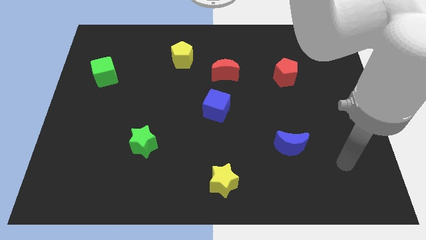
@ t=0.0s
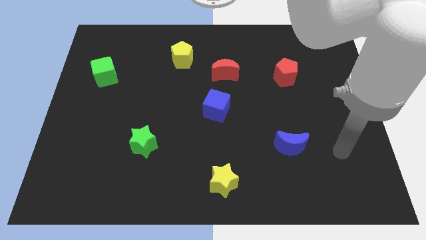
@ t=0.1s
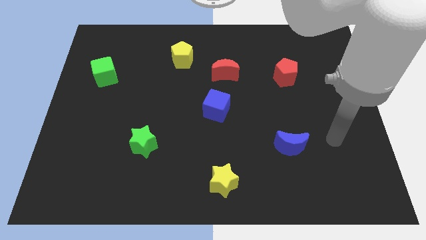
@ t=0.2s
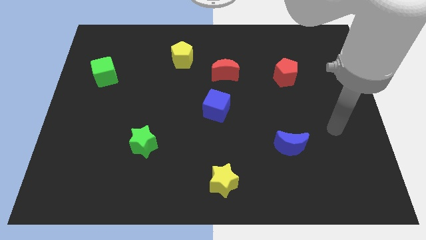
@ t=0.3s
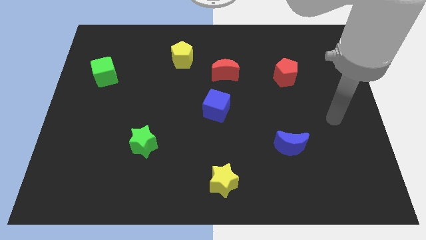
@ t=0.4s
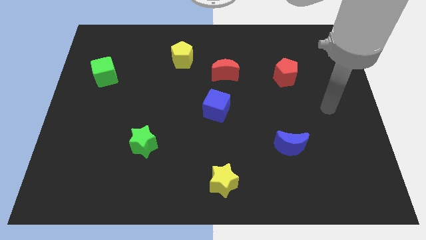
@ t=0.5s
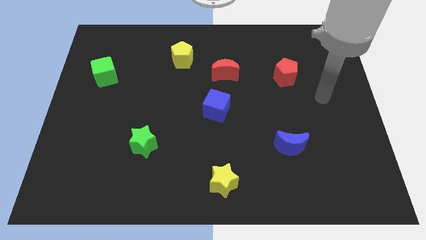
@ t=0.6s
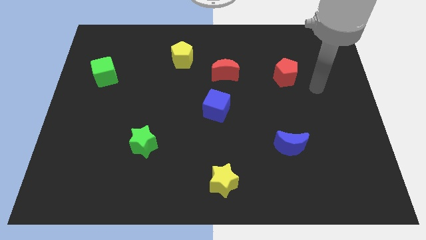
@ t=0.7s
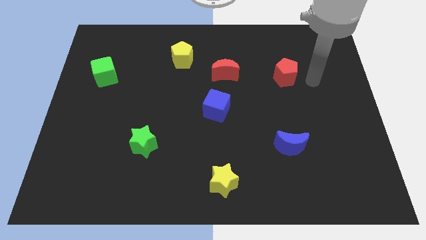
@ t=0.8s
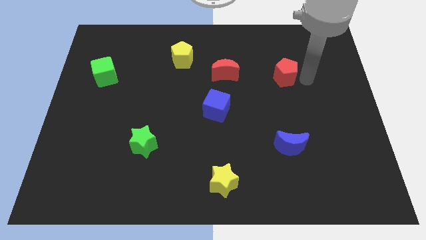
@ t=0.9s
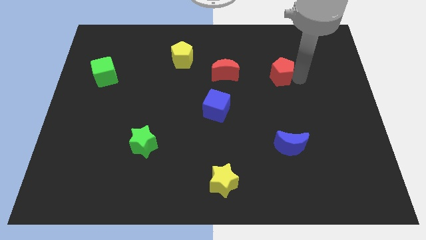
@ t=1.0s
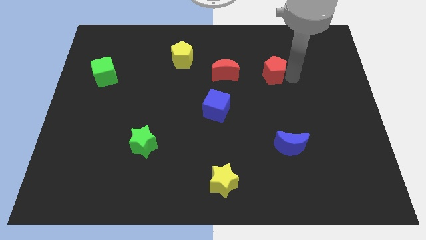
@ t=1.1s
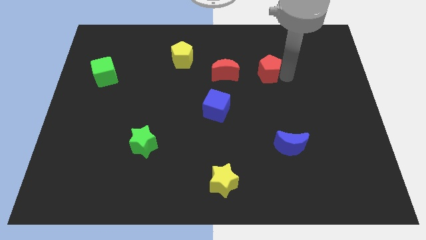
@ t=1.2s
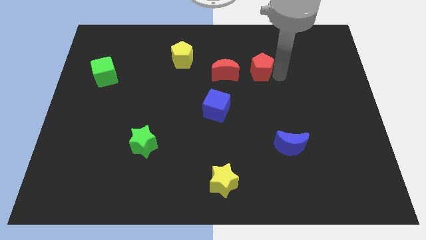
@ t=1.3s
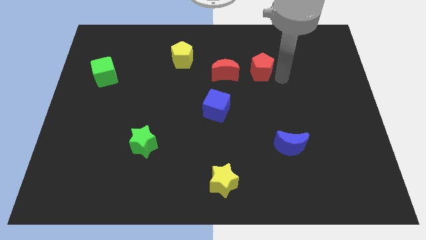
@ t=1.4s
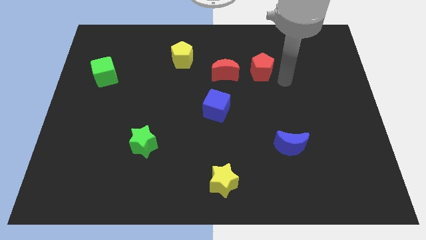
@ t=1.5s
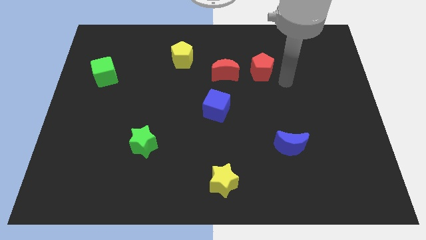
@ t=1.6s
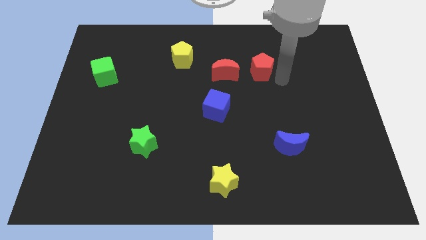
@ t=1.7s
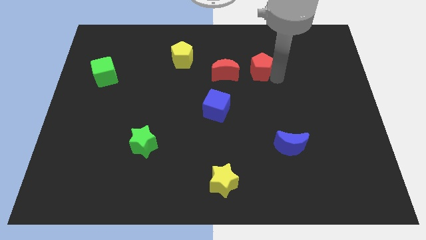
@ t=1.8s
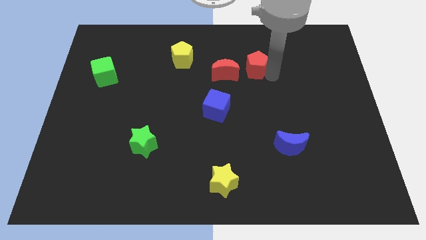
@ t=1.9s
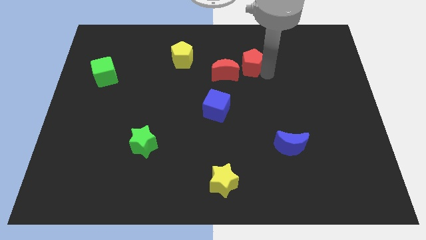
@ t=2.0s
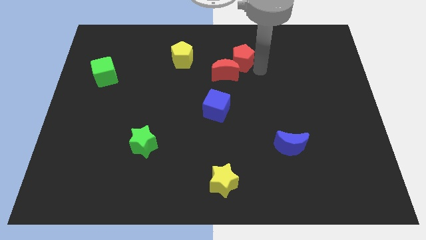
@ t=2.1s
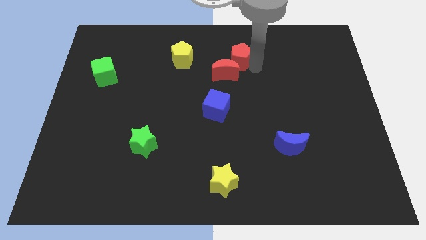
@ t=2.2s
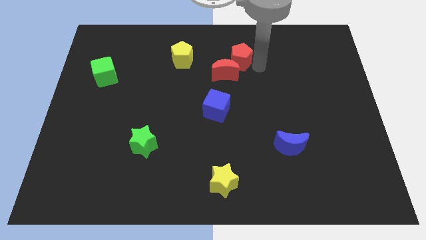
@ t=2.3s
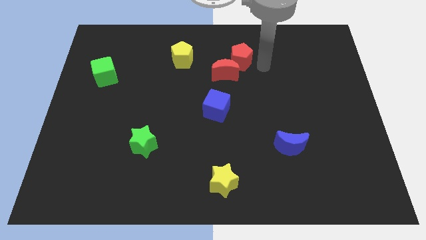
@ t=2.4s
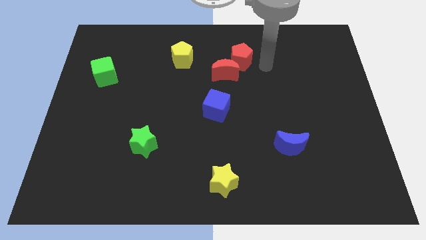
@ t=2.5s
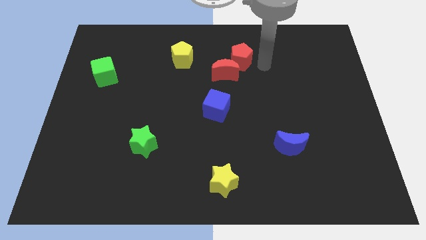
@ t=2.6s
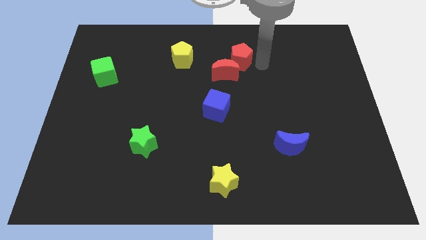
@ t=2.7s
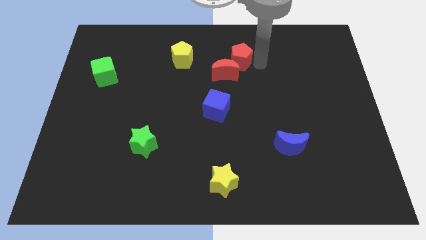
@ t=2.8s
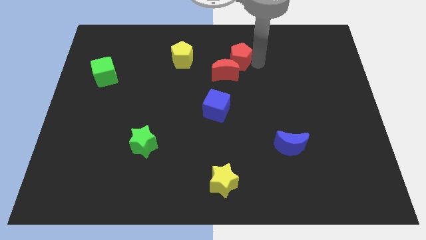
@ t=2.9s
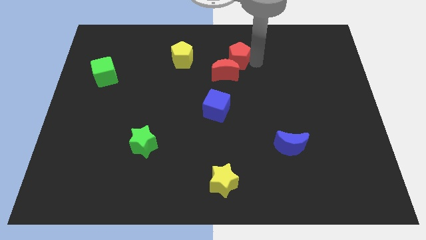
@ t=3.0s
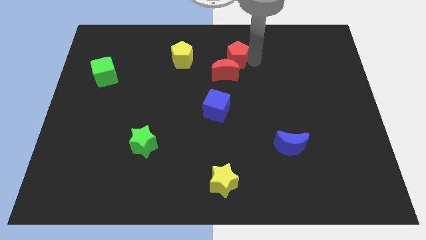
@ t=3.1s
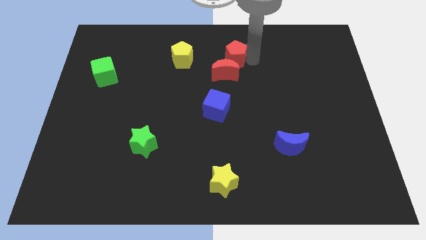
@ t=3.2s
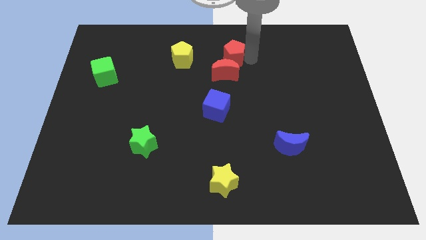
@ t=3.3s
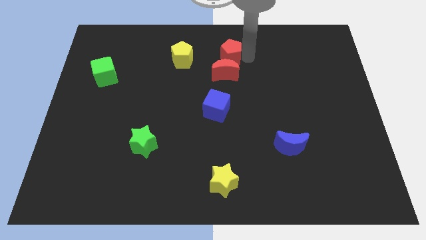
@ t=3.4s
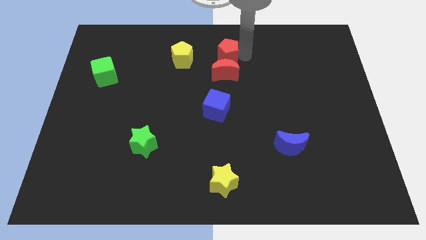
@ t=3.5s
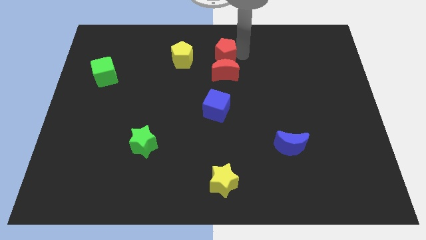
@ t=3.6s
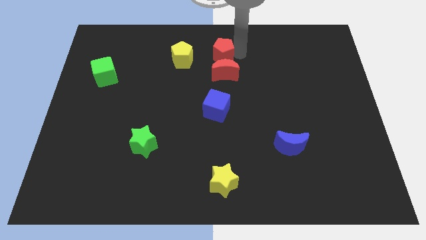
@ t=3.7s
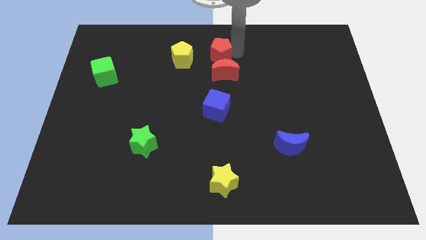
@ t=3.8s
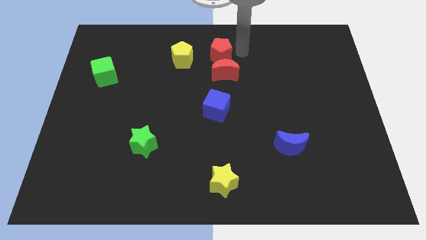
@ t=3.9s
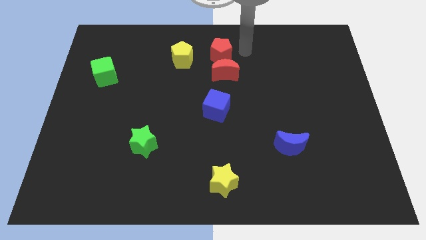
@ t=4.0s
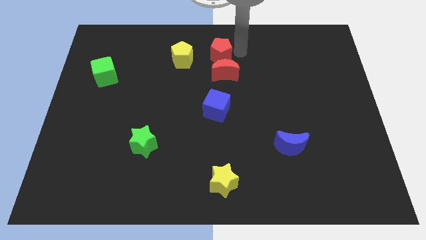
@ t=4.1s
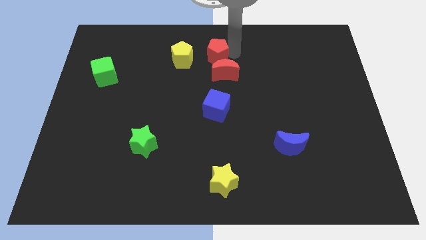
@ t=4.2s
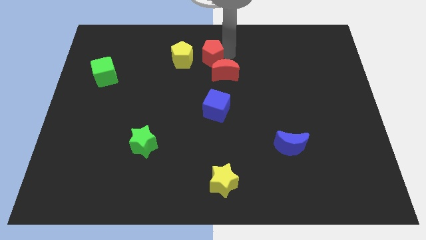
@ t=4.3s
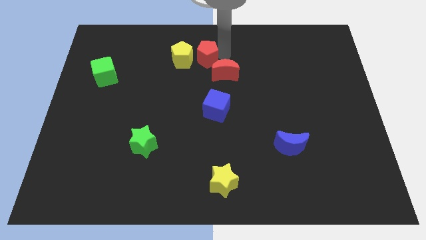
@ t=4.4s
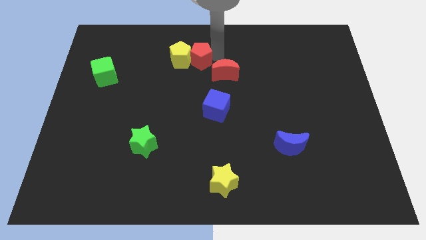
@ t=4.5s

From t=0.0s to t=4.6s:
slide the red pentagon to the yellow pentagon

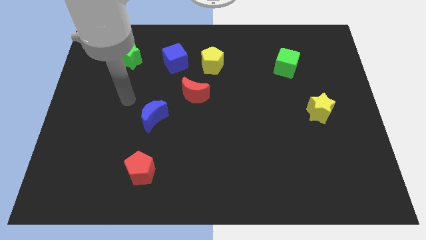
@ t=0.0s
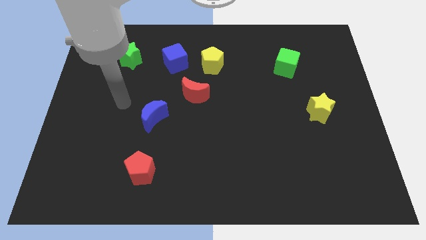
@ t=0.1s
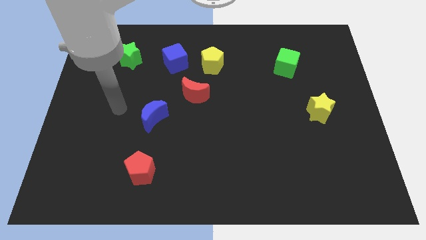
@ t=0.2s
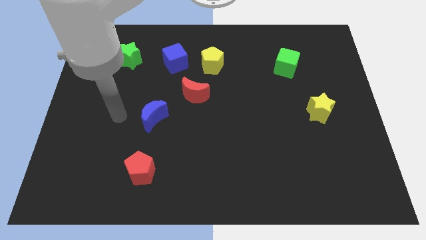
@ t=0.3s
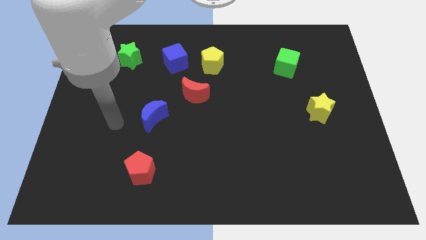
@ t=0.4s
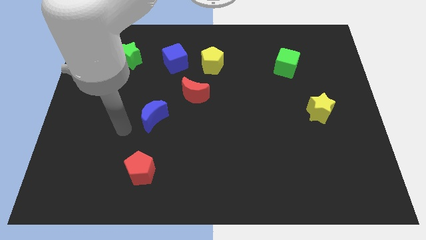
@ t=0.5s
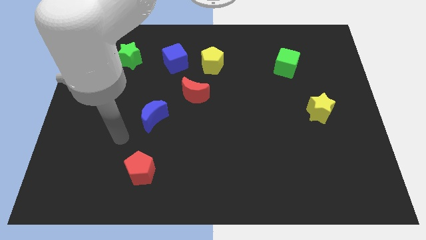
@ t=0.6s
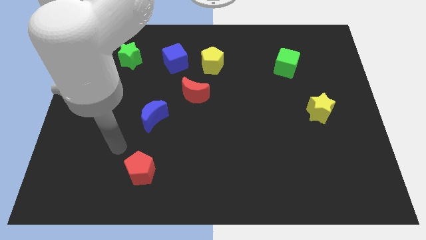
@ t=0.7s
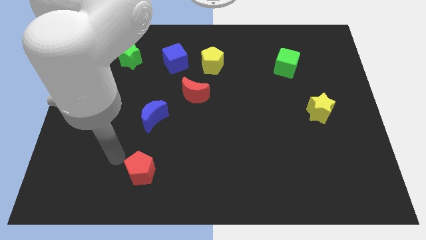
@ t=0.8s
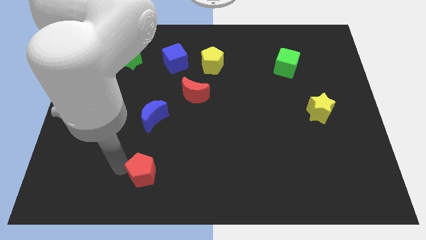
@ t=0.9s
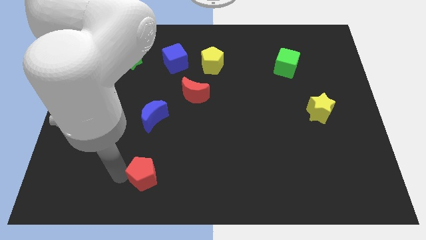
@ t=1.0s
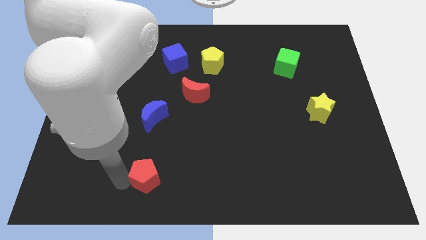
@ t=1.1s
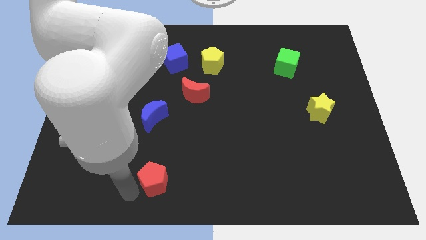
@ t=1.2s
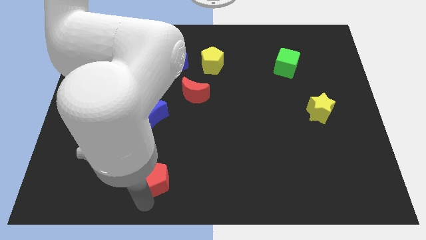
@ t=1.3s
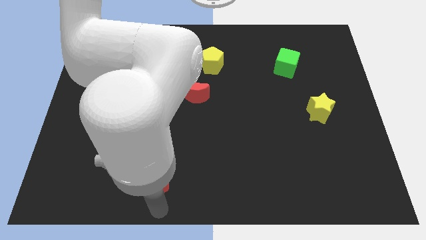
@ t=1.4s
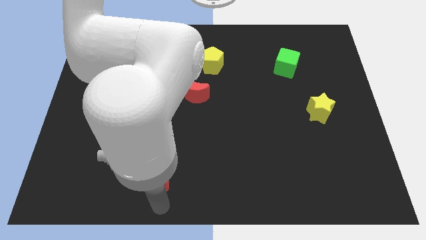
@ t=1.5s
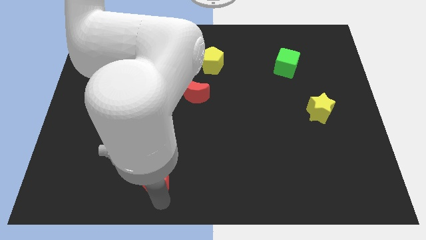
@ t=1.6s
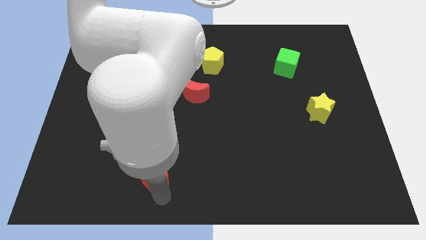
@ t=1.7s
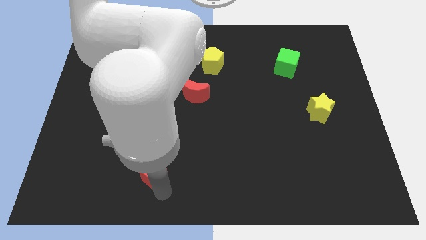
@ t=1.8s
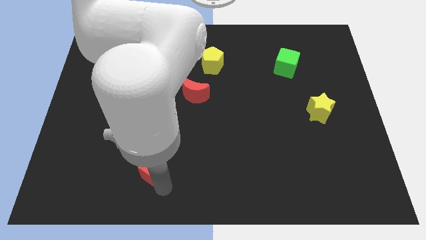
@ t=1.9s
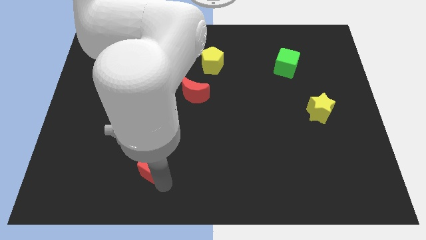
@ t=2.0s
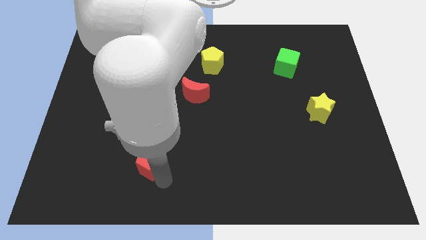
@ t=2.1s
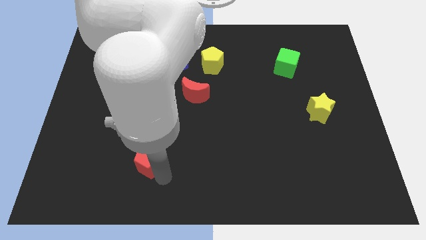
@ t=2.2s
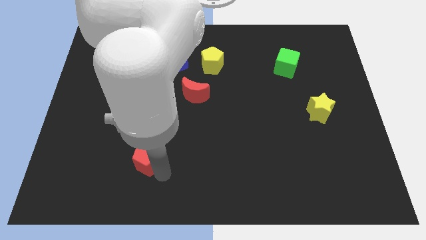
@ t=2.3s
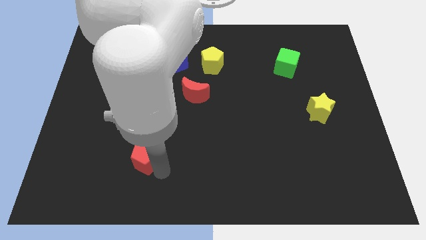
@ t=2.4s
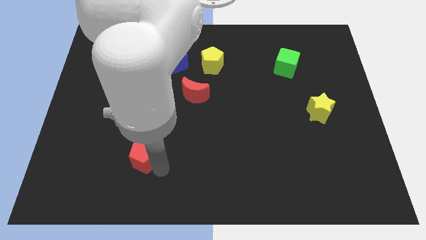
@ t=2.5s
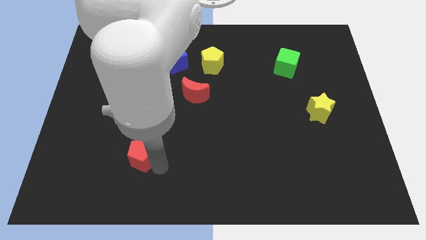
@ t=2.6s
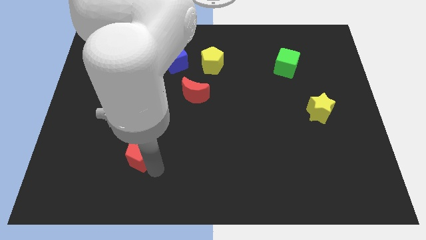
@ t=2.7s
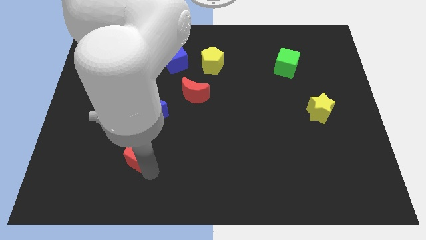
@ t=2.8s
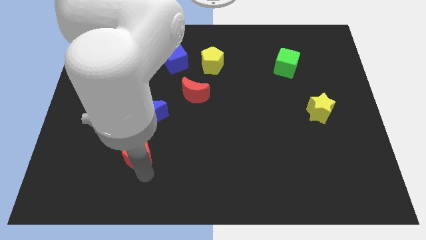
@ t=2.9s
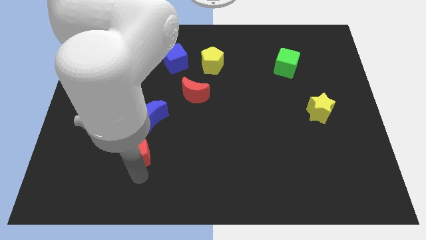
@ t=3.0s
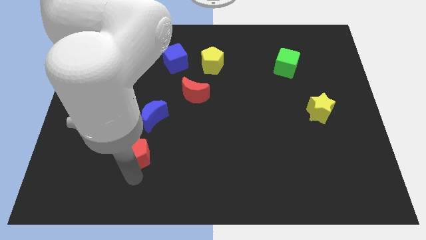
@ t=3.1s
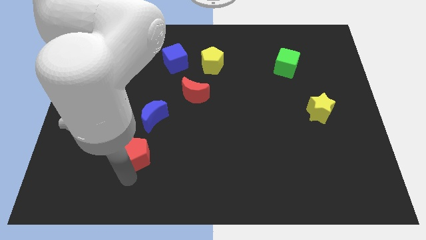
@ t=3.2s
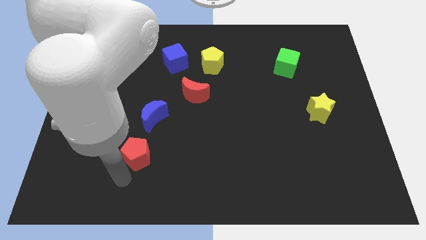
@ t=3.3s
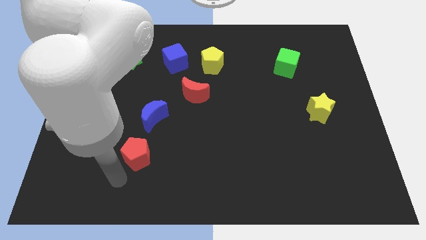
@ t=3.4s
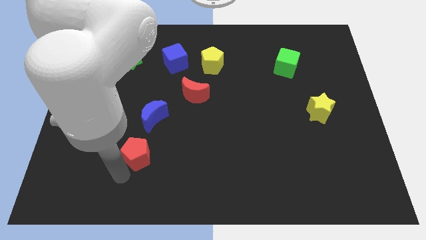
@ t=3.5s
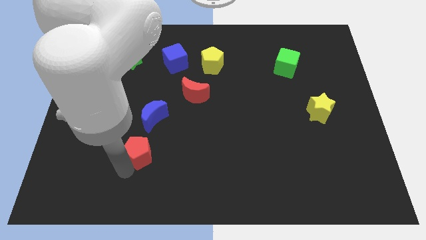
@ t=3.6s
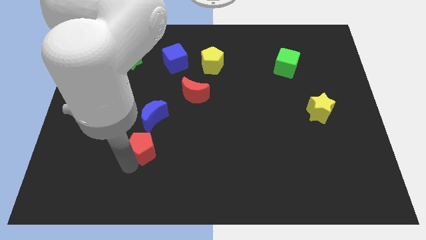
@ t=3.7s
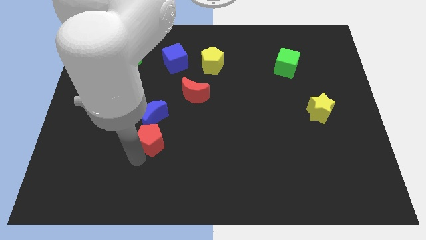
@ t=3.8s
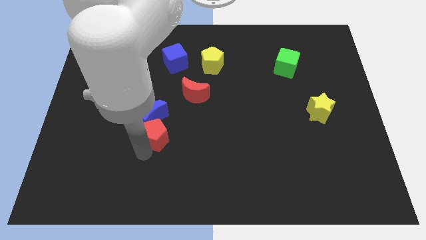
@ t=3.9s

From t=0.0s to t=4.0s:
put the red pentagon to the blue moon
